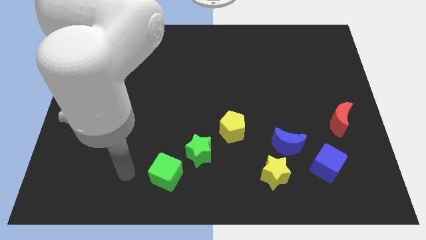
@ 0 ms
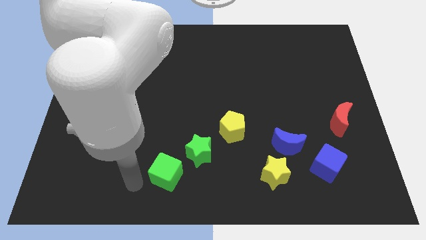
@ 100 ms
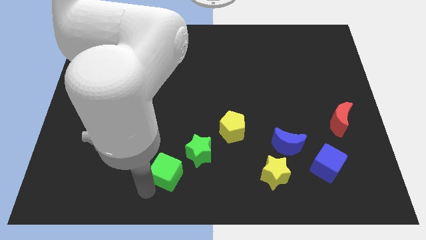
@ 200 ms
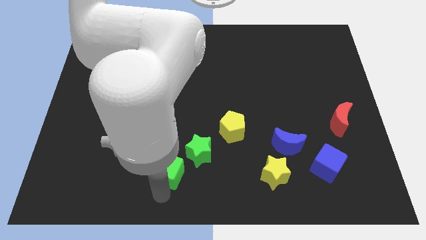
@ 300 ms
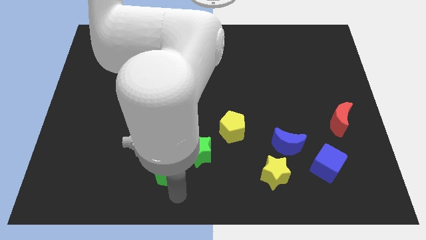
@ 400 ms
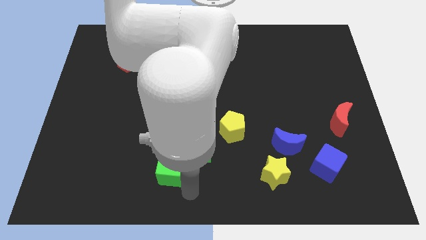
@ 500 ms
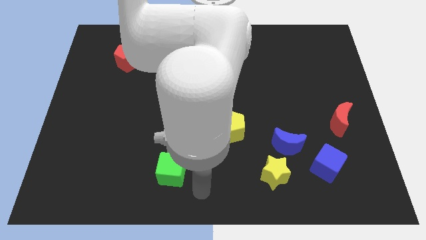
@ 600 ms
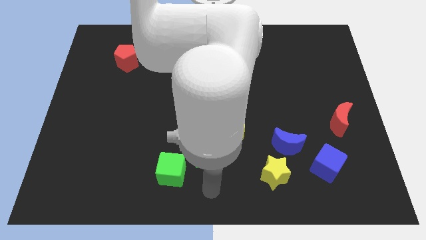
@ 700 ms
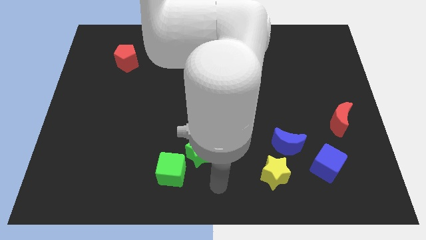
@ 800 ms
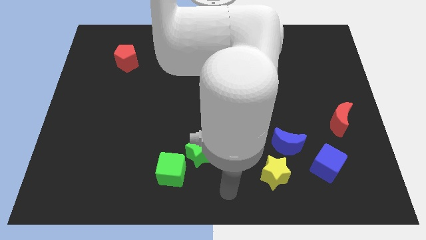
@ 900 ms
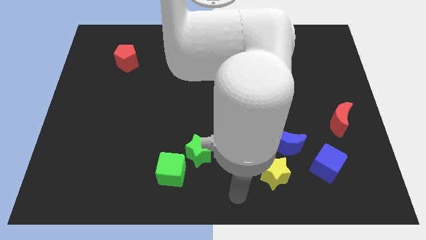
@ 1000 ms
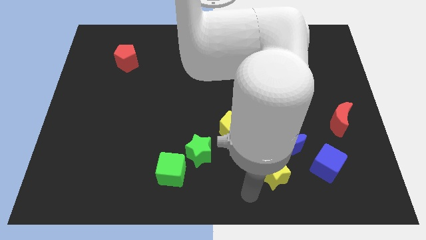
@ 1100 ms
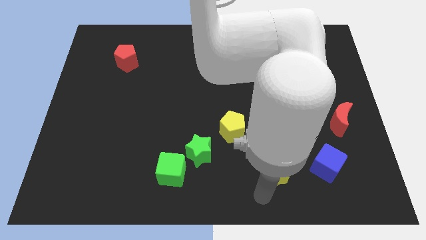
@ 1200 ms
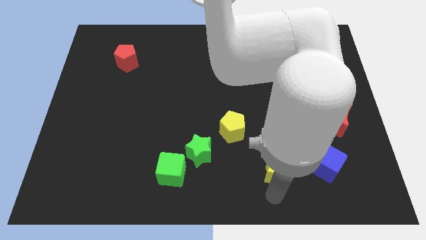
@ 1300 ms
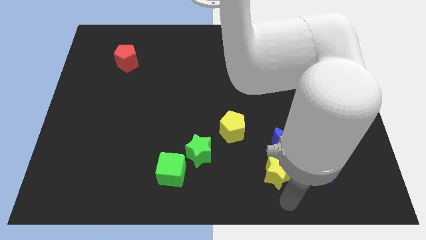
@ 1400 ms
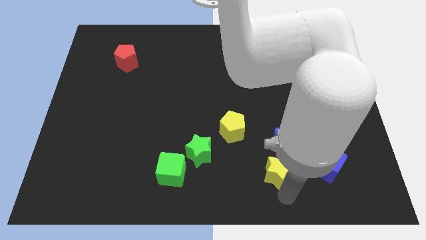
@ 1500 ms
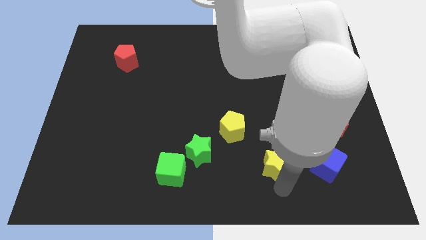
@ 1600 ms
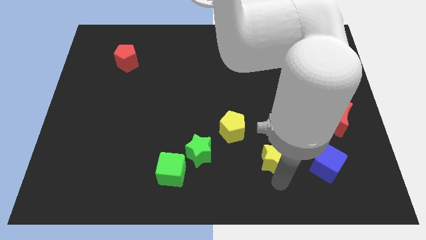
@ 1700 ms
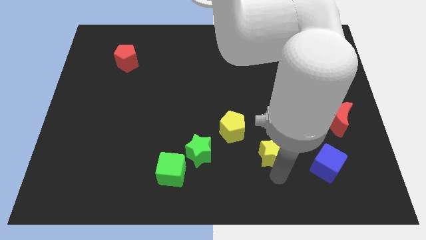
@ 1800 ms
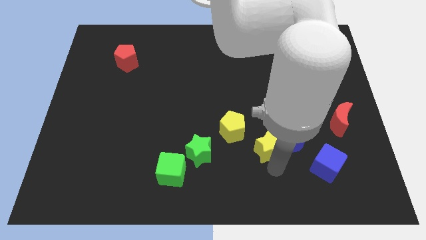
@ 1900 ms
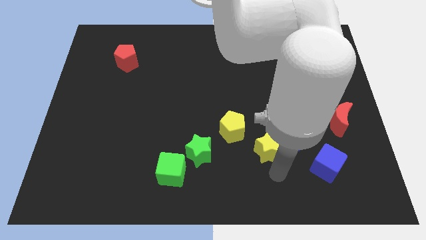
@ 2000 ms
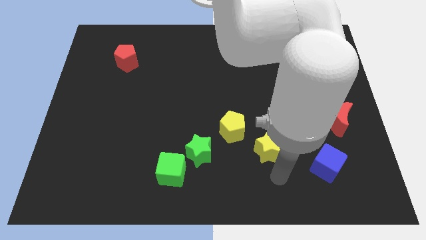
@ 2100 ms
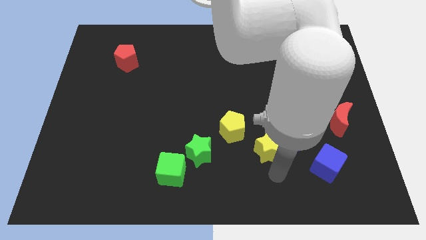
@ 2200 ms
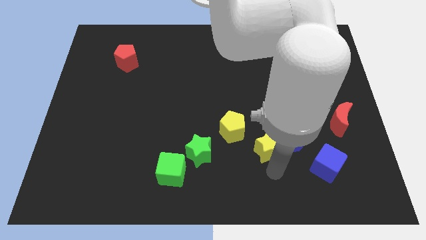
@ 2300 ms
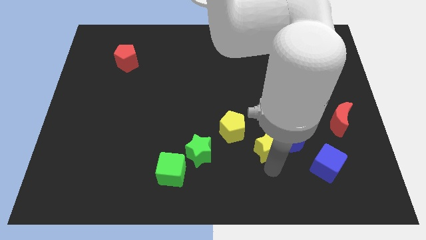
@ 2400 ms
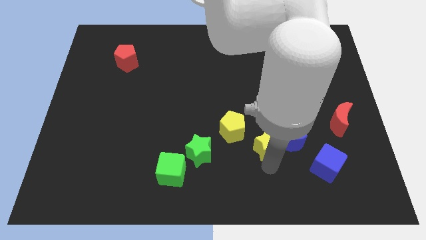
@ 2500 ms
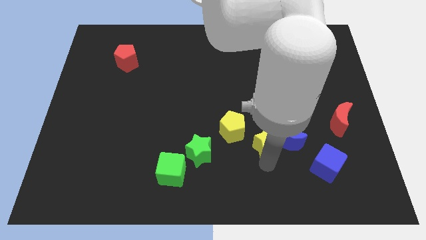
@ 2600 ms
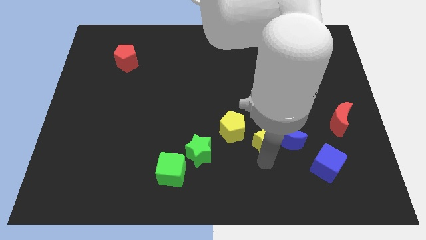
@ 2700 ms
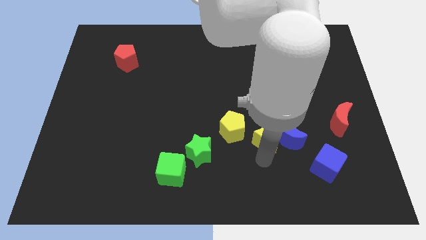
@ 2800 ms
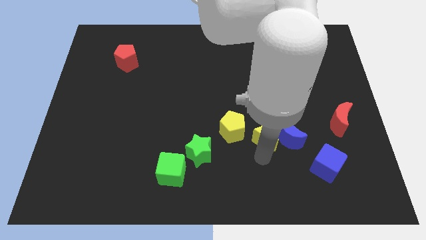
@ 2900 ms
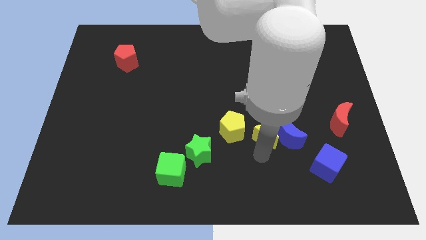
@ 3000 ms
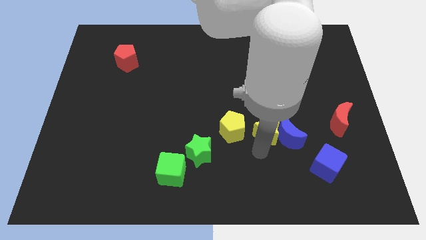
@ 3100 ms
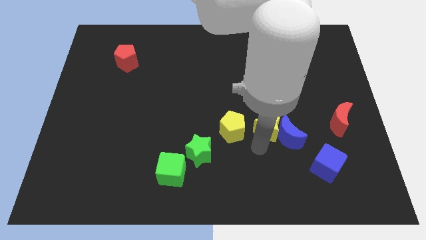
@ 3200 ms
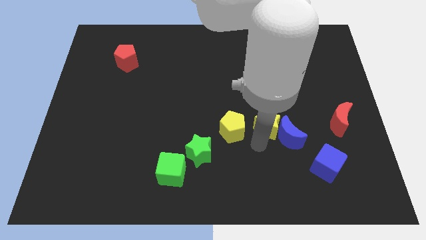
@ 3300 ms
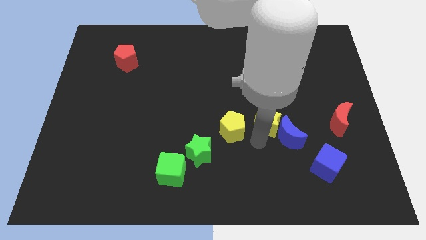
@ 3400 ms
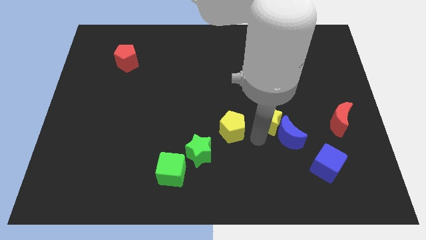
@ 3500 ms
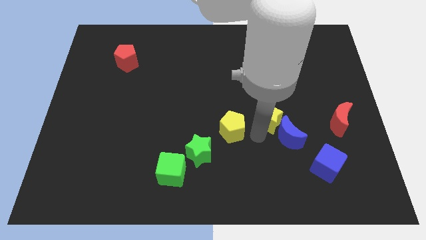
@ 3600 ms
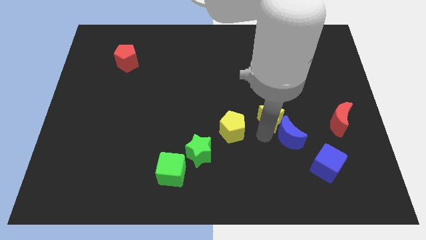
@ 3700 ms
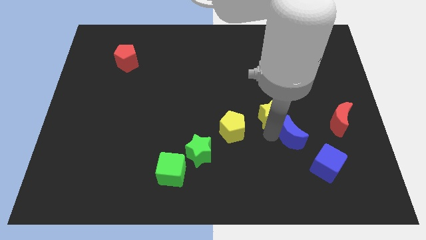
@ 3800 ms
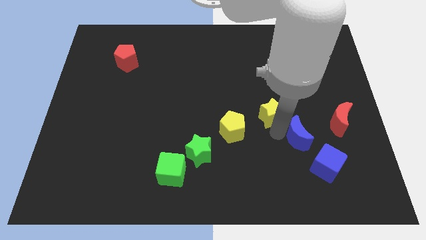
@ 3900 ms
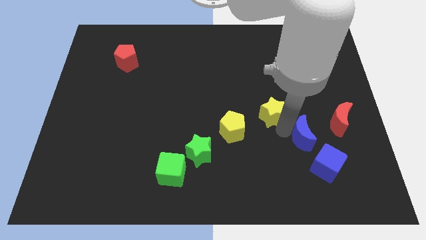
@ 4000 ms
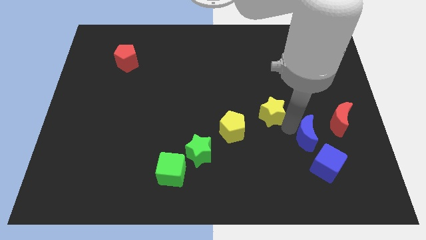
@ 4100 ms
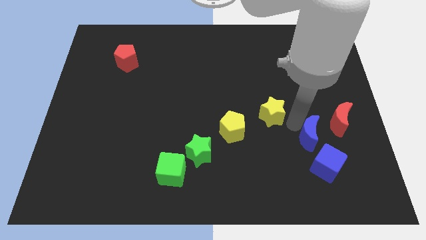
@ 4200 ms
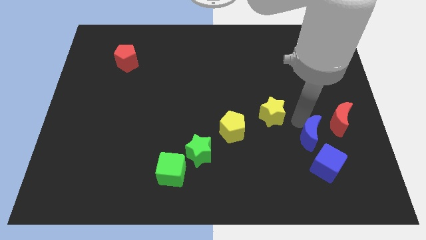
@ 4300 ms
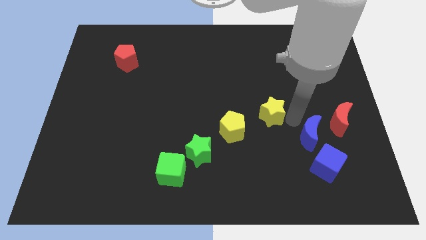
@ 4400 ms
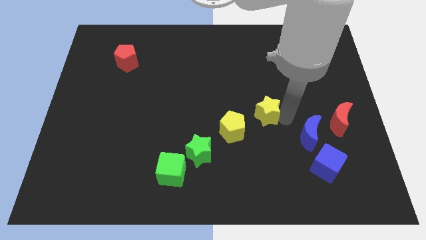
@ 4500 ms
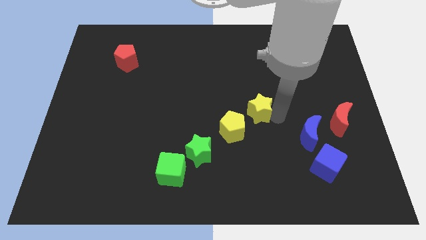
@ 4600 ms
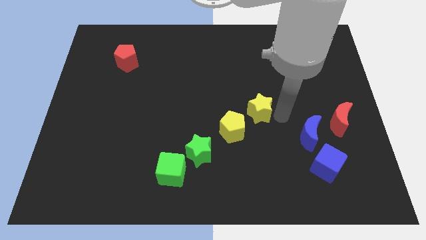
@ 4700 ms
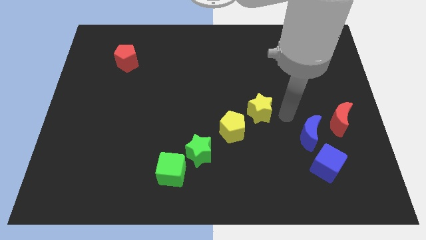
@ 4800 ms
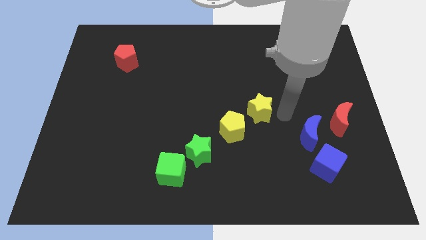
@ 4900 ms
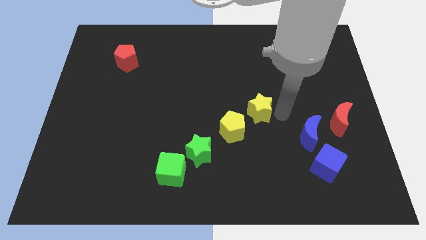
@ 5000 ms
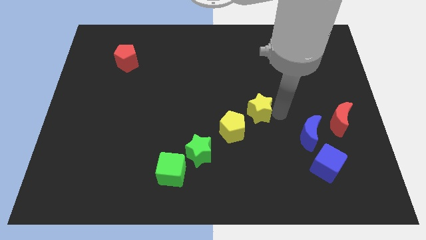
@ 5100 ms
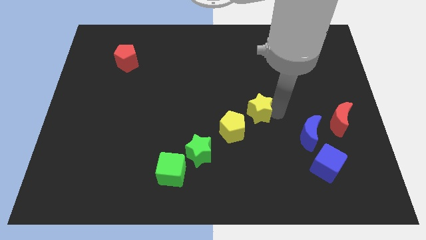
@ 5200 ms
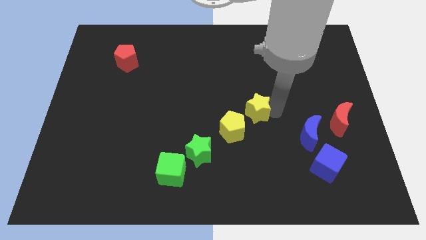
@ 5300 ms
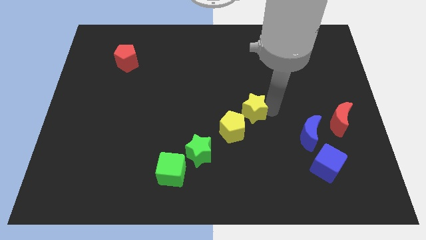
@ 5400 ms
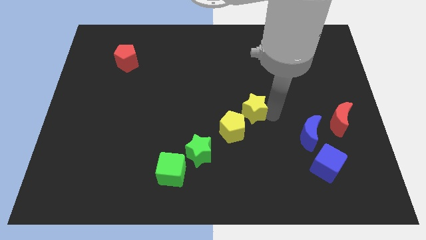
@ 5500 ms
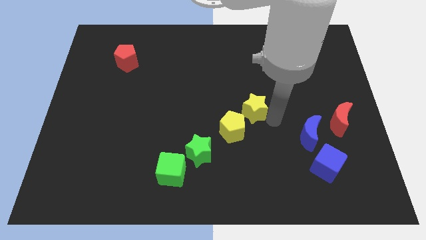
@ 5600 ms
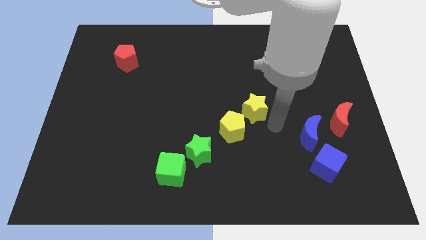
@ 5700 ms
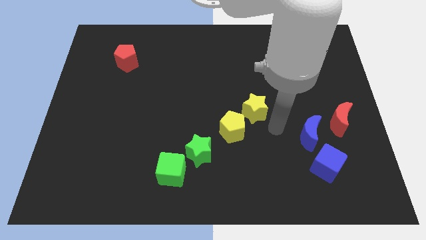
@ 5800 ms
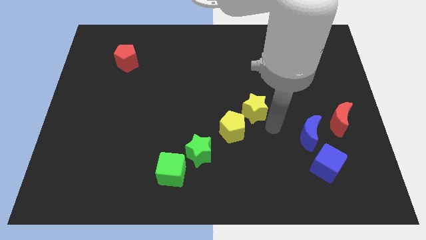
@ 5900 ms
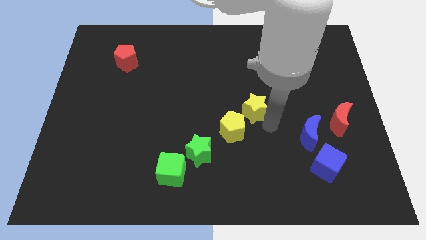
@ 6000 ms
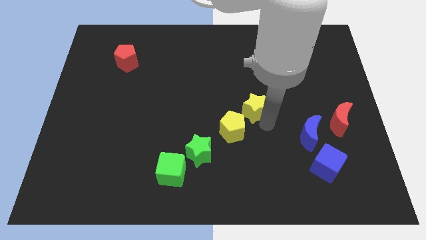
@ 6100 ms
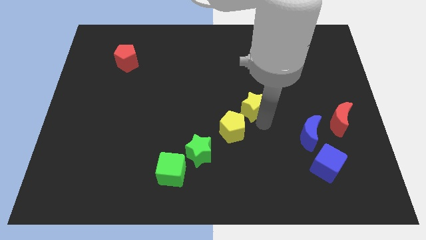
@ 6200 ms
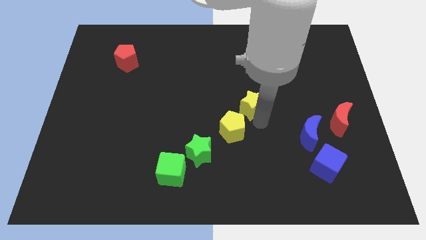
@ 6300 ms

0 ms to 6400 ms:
slide the yellow star to the top of the yellow pentagon
